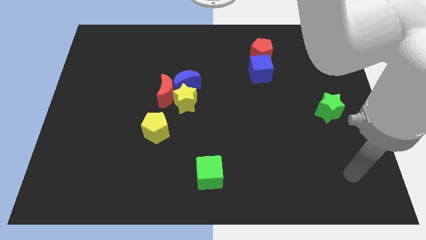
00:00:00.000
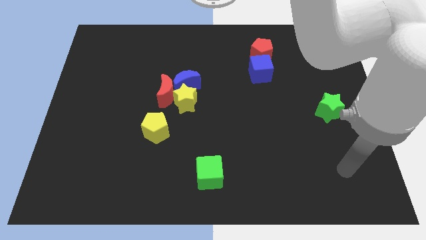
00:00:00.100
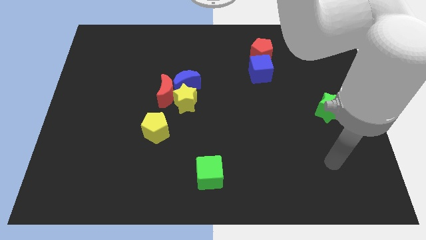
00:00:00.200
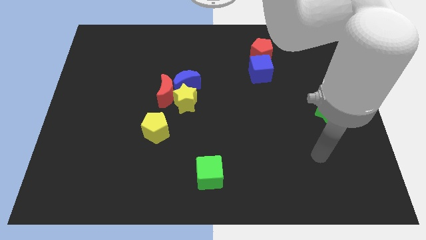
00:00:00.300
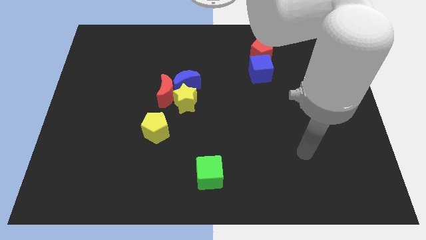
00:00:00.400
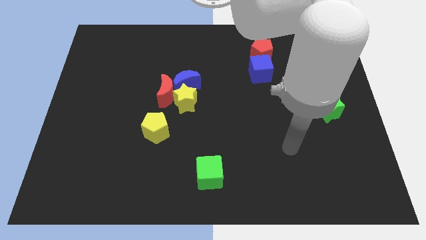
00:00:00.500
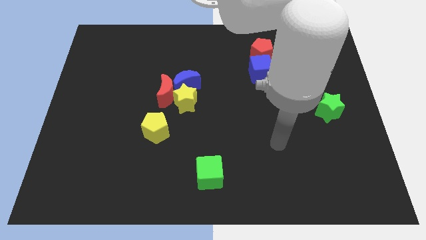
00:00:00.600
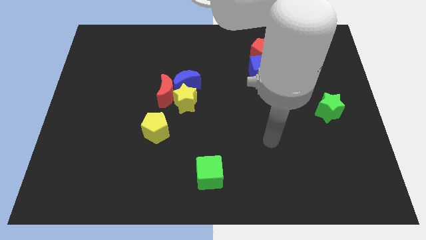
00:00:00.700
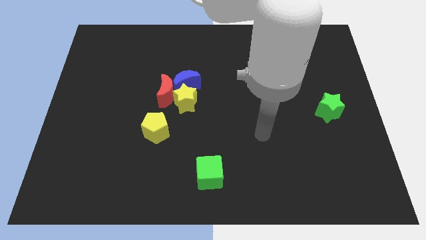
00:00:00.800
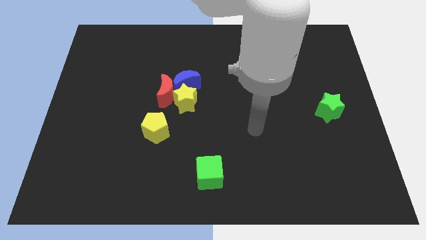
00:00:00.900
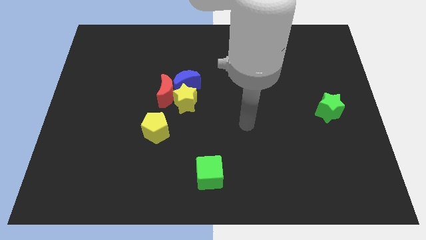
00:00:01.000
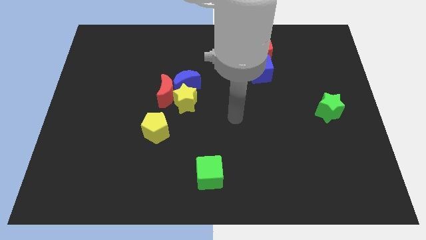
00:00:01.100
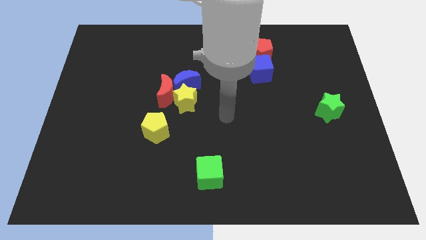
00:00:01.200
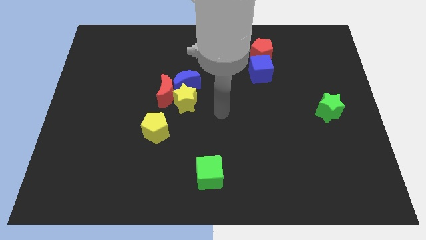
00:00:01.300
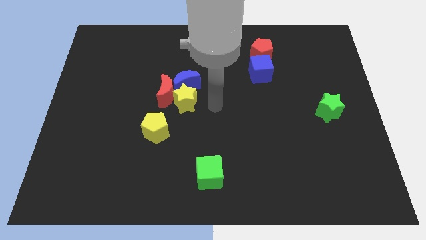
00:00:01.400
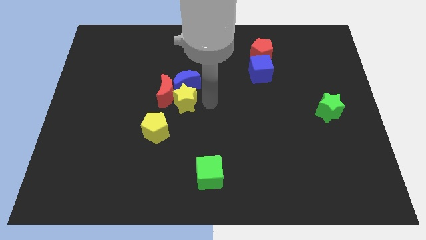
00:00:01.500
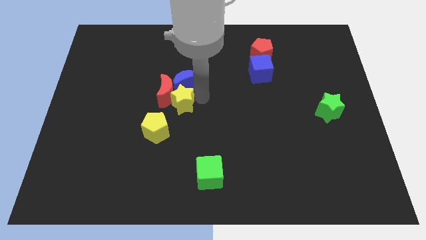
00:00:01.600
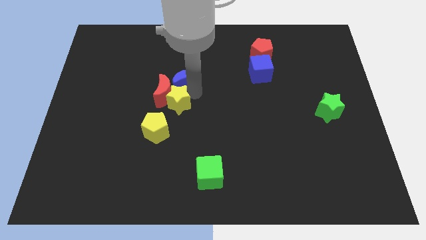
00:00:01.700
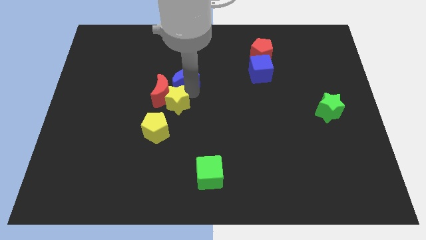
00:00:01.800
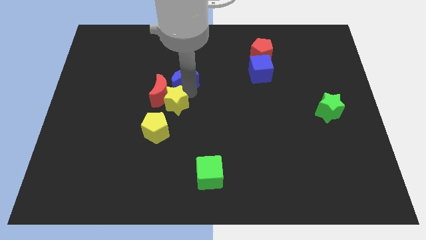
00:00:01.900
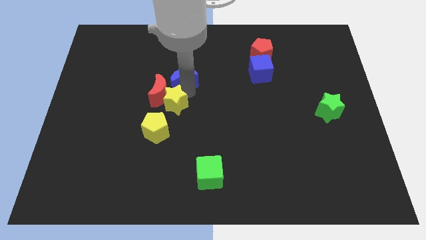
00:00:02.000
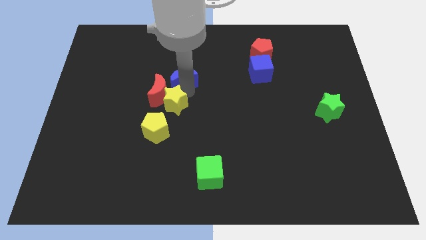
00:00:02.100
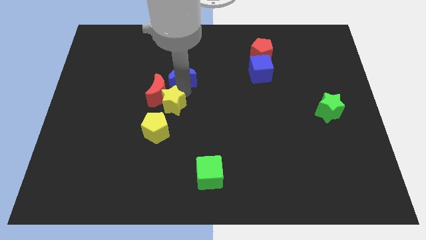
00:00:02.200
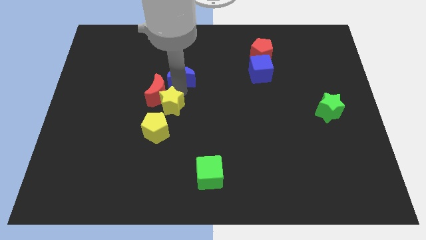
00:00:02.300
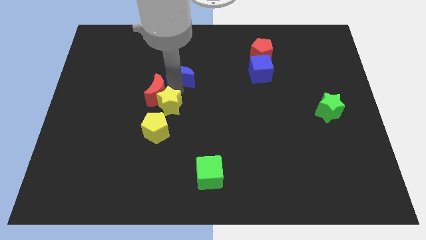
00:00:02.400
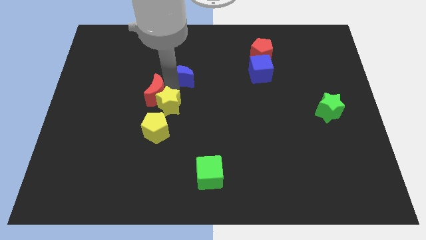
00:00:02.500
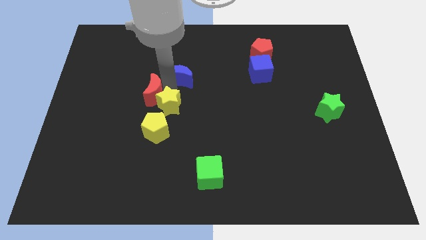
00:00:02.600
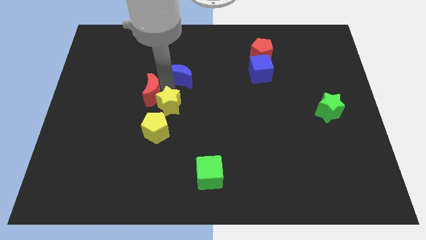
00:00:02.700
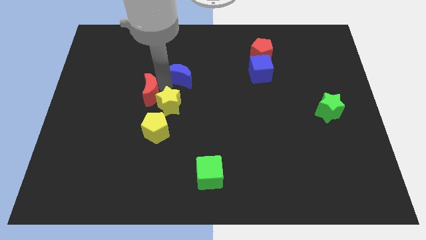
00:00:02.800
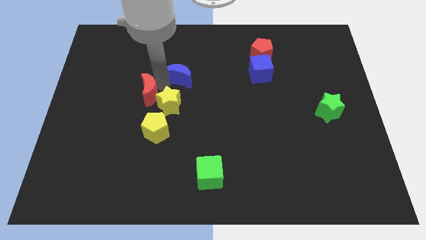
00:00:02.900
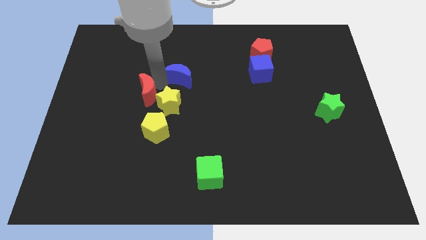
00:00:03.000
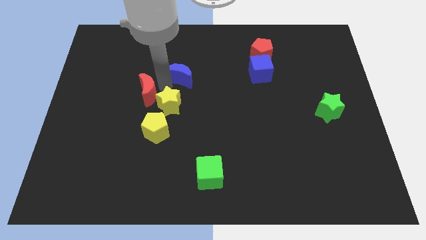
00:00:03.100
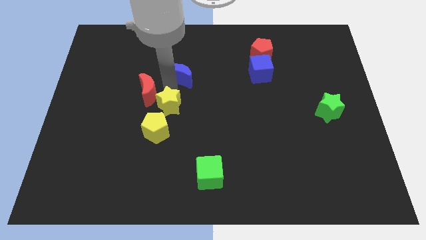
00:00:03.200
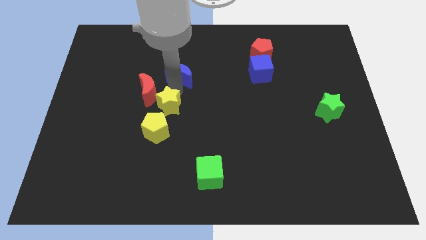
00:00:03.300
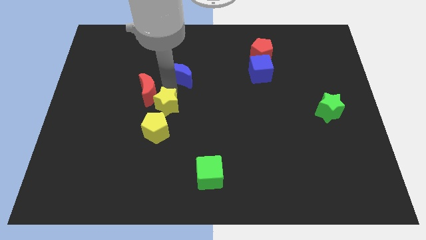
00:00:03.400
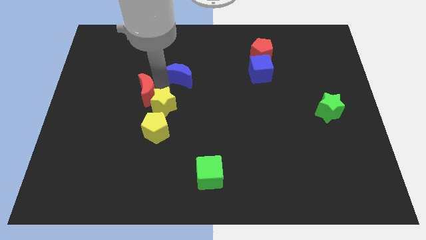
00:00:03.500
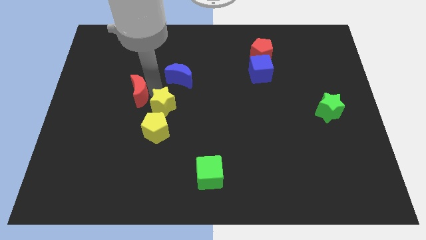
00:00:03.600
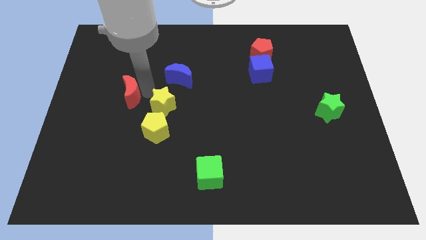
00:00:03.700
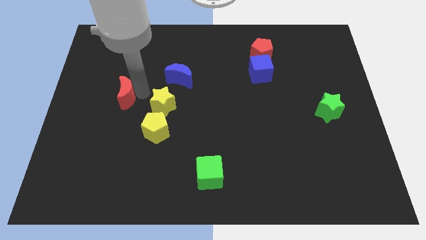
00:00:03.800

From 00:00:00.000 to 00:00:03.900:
separate the red moon from the yellow star and blue moon

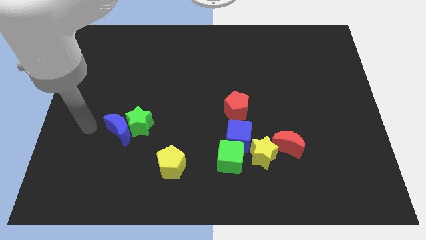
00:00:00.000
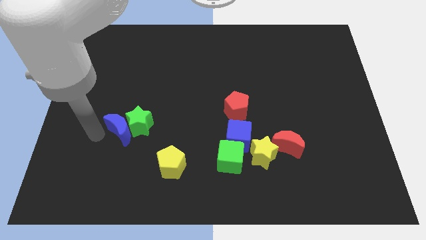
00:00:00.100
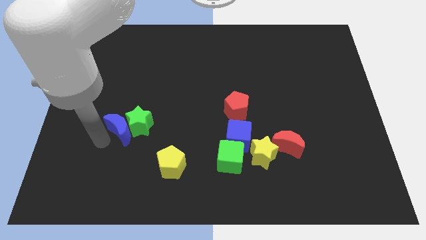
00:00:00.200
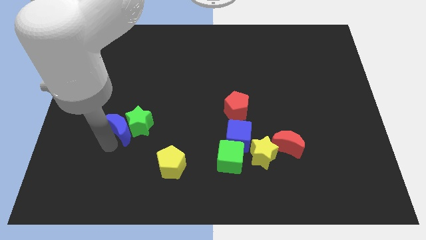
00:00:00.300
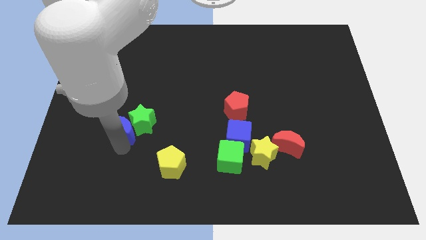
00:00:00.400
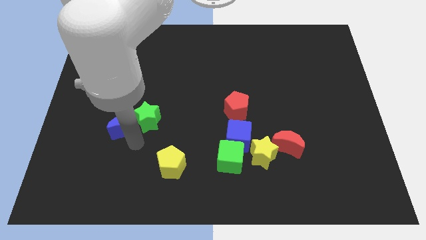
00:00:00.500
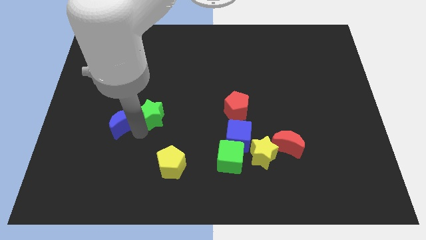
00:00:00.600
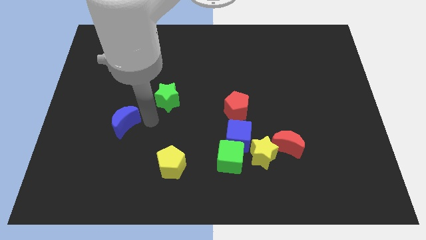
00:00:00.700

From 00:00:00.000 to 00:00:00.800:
move the blue moon away from the green star

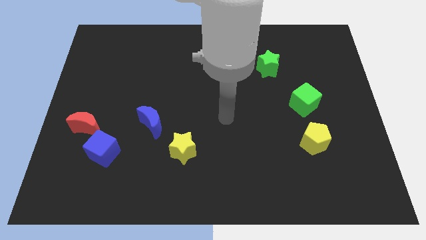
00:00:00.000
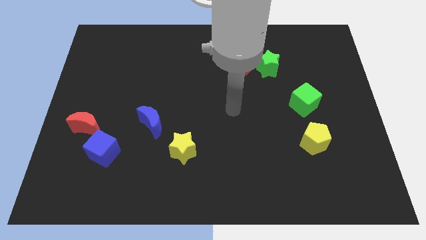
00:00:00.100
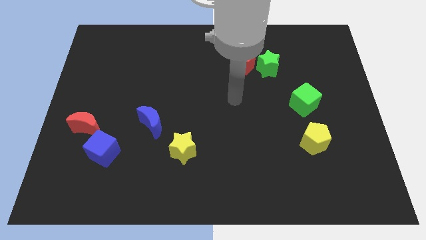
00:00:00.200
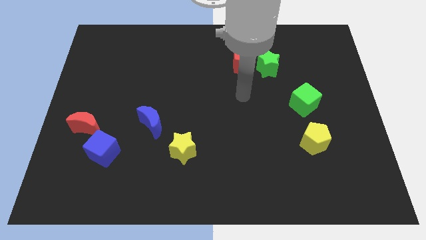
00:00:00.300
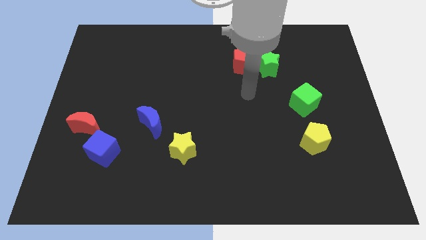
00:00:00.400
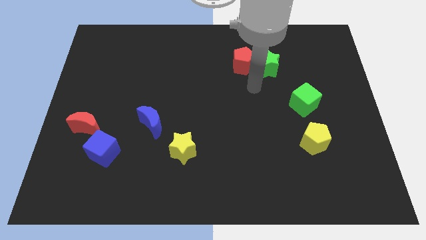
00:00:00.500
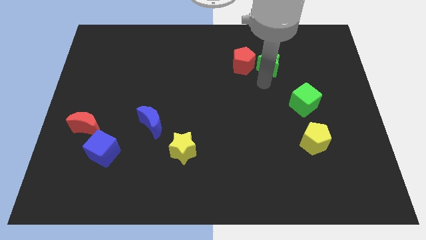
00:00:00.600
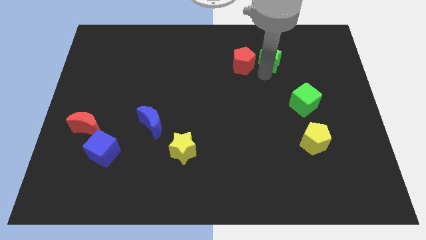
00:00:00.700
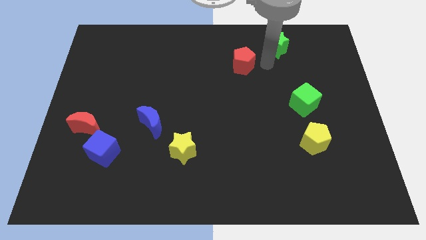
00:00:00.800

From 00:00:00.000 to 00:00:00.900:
pull the red pentagon apart from the green star

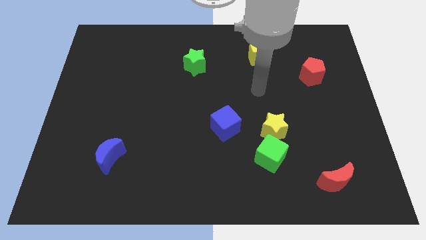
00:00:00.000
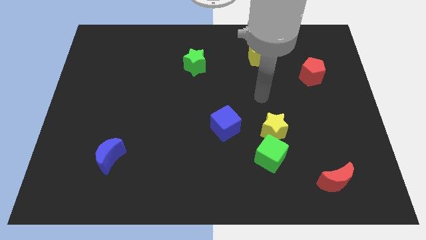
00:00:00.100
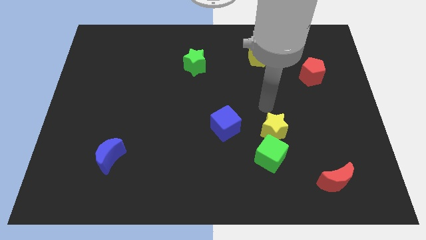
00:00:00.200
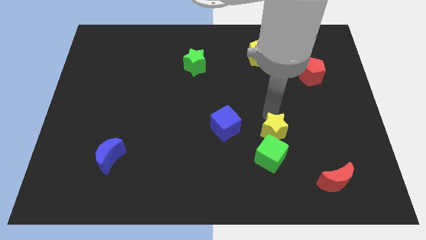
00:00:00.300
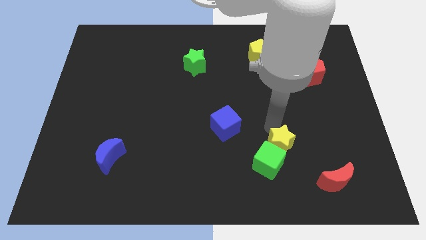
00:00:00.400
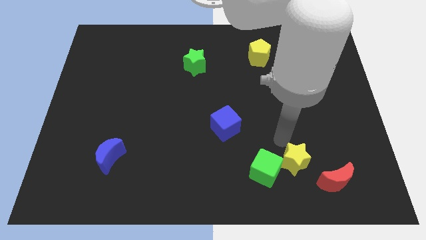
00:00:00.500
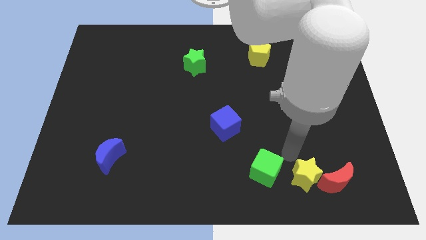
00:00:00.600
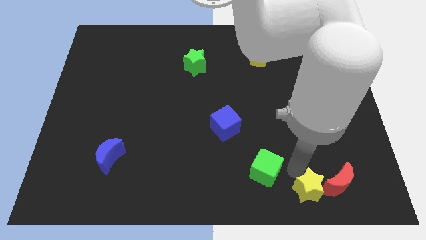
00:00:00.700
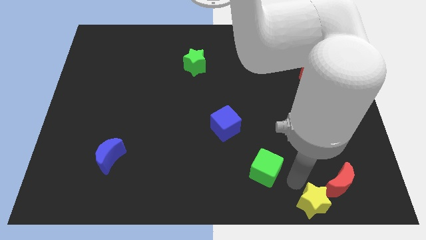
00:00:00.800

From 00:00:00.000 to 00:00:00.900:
pull the green cube apart from the yellow star

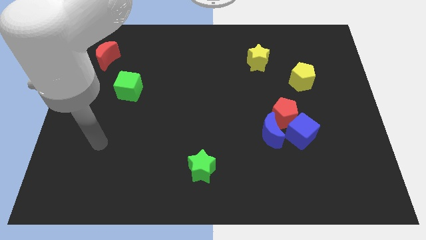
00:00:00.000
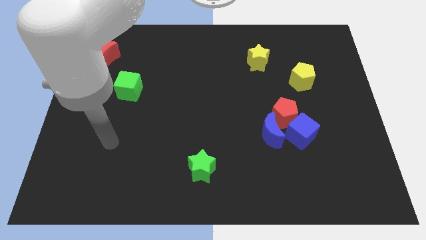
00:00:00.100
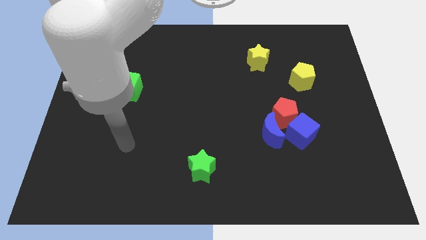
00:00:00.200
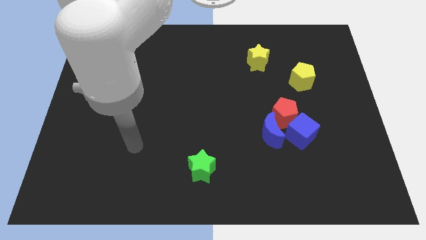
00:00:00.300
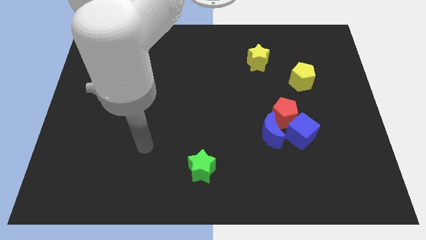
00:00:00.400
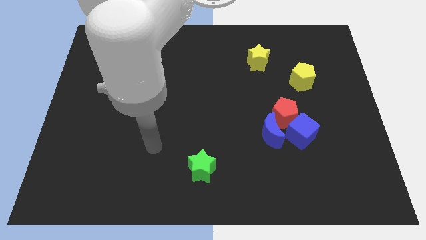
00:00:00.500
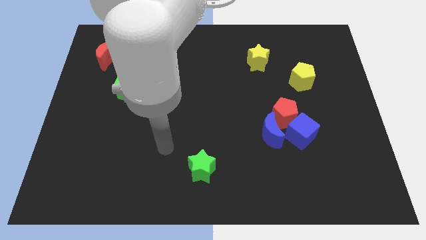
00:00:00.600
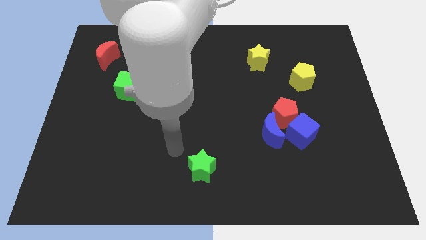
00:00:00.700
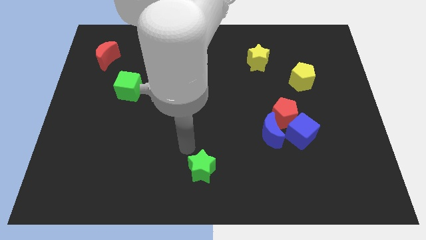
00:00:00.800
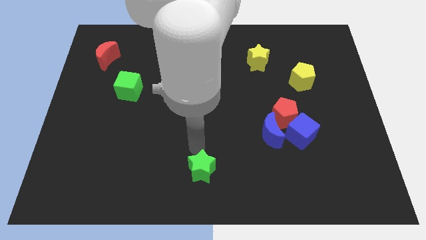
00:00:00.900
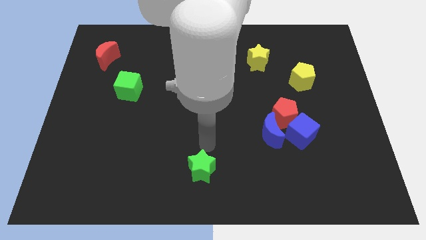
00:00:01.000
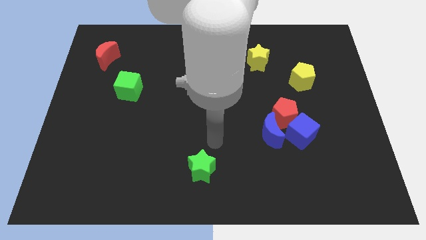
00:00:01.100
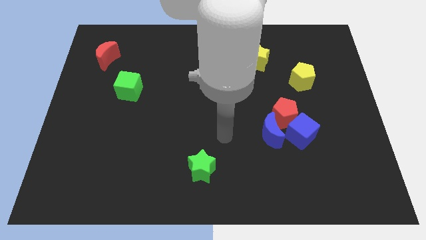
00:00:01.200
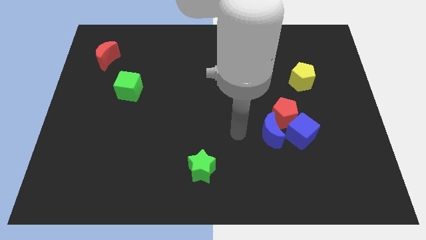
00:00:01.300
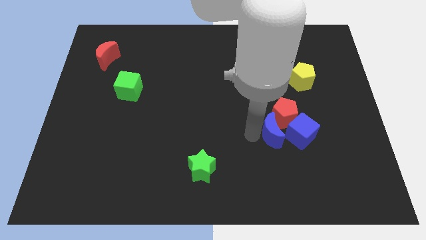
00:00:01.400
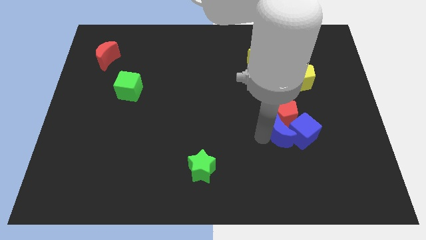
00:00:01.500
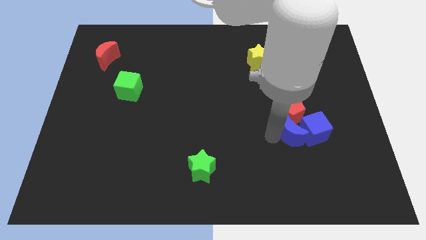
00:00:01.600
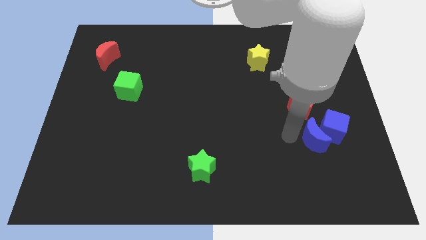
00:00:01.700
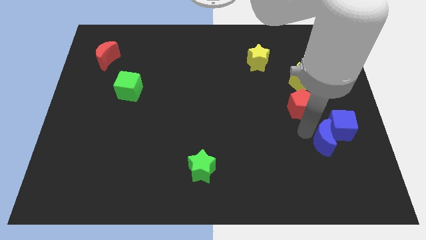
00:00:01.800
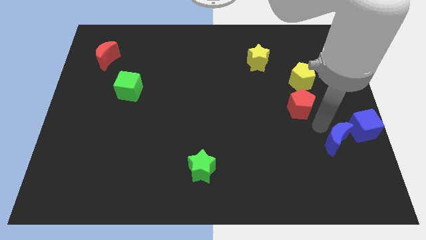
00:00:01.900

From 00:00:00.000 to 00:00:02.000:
separate the red pentagon from the blue cube and blue moon

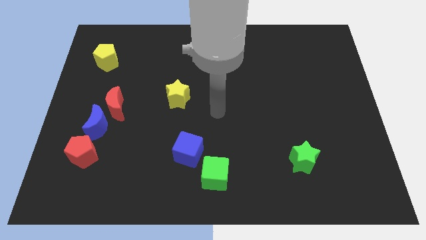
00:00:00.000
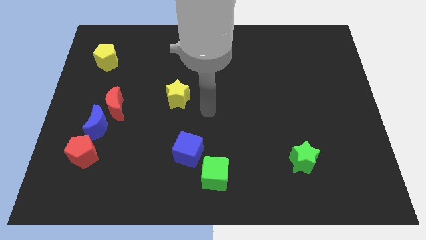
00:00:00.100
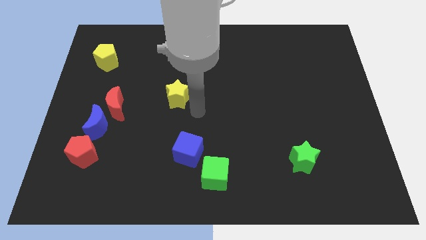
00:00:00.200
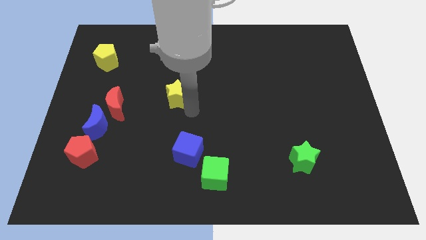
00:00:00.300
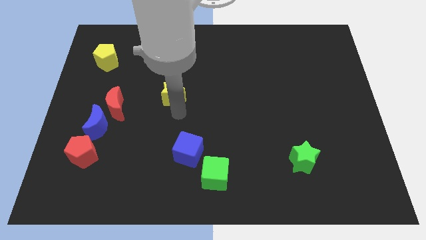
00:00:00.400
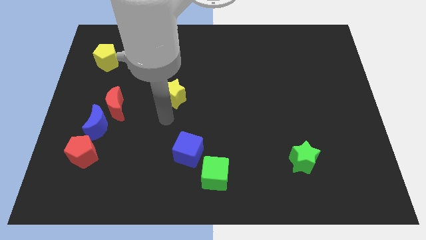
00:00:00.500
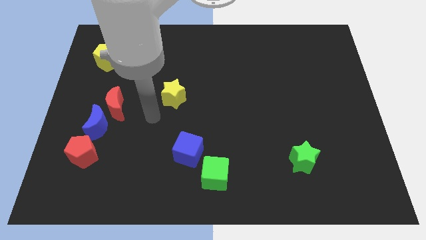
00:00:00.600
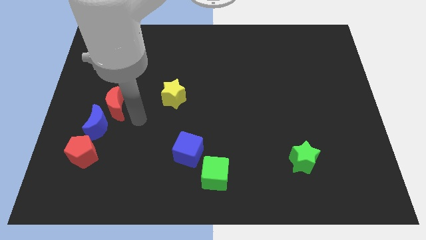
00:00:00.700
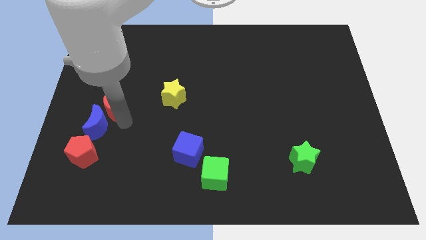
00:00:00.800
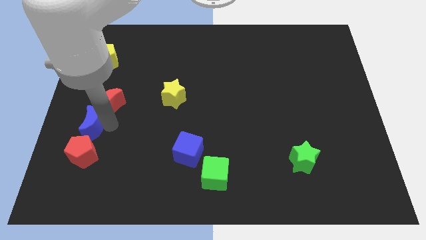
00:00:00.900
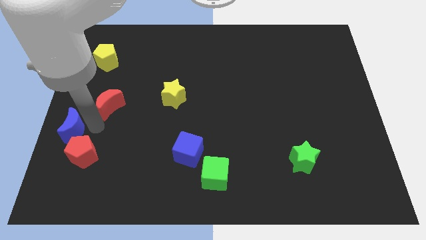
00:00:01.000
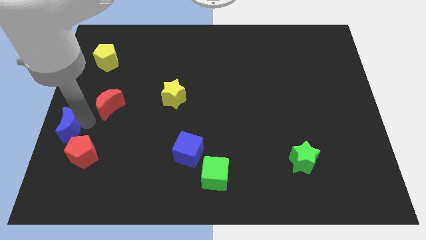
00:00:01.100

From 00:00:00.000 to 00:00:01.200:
separate the red moon from the blue moon
